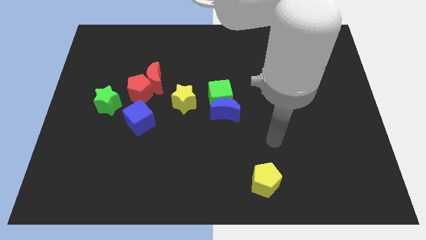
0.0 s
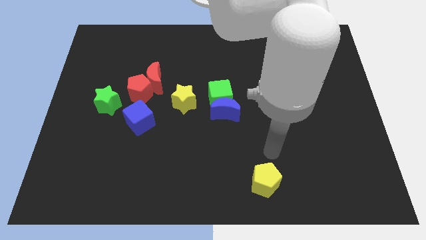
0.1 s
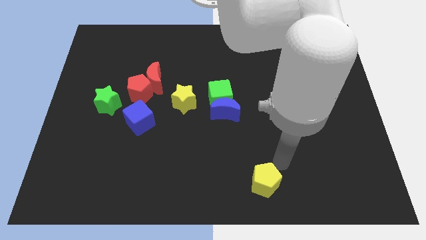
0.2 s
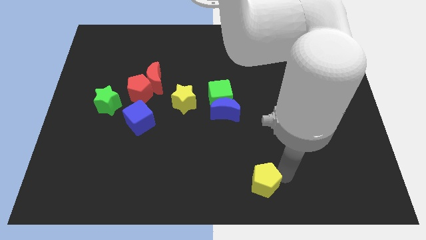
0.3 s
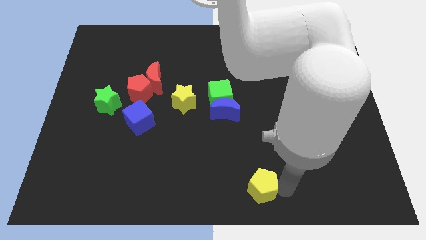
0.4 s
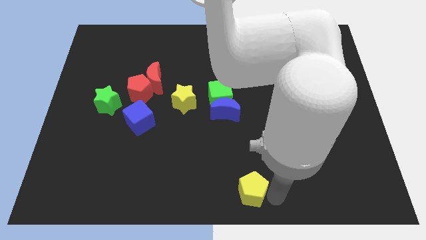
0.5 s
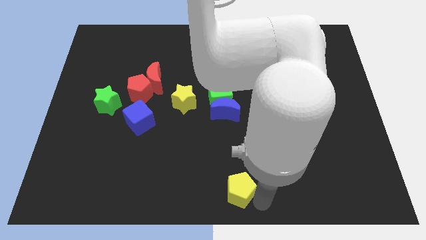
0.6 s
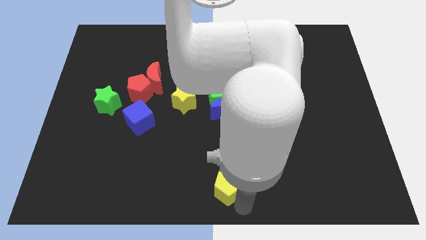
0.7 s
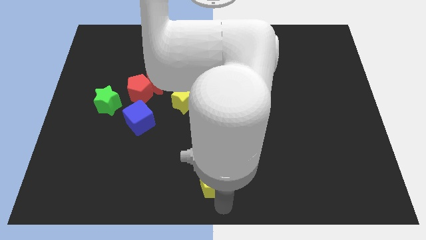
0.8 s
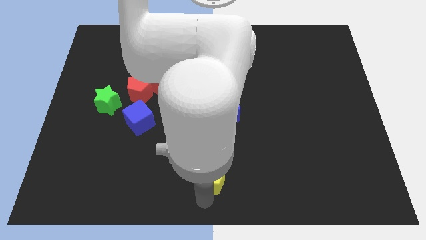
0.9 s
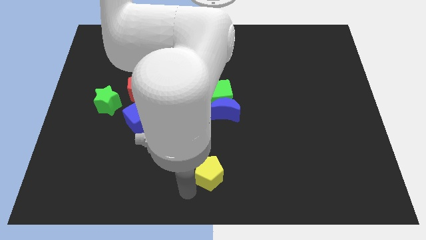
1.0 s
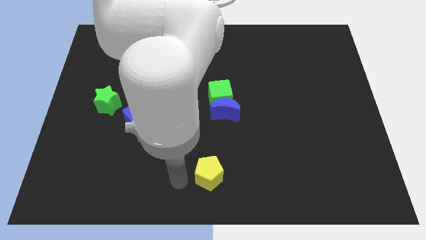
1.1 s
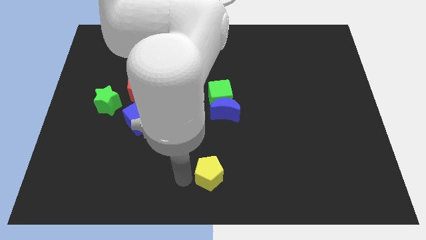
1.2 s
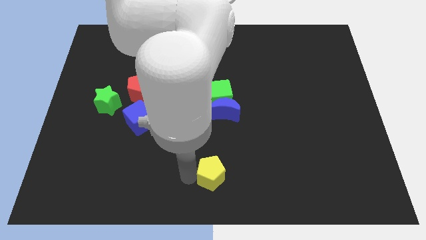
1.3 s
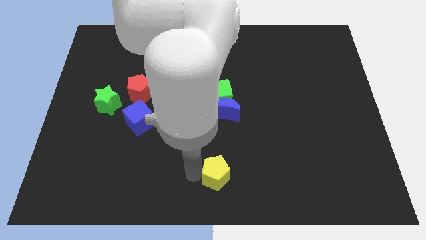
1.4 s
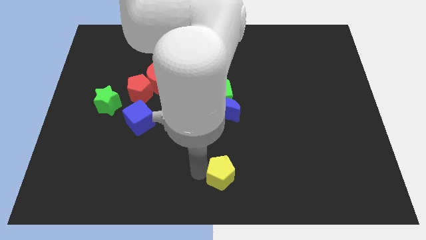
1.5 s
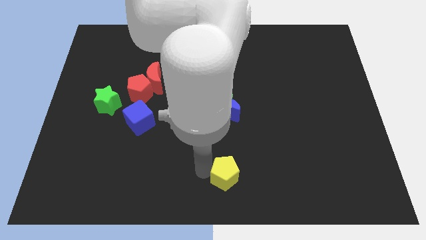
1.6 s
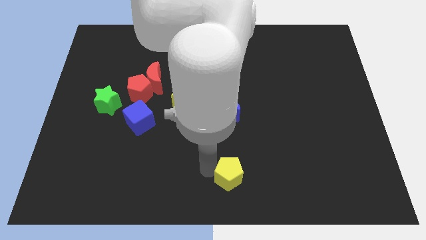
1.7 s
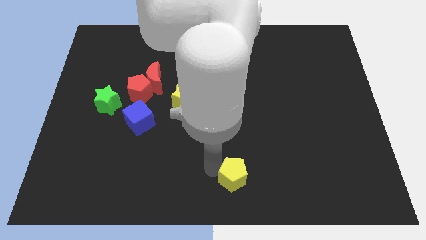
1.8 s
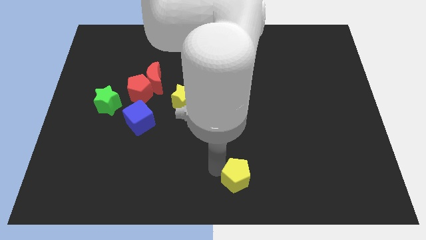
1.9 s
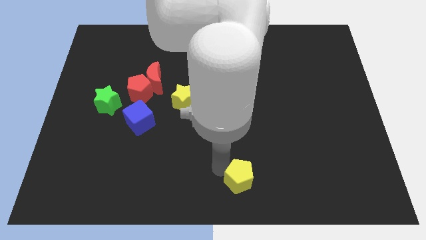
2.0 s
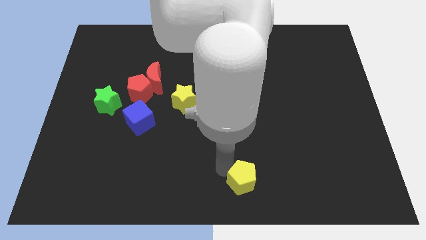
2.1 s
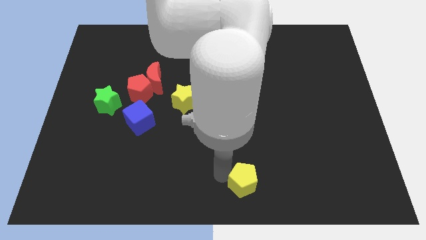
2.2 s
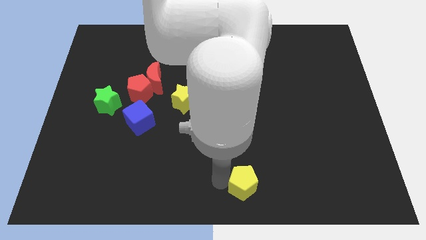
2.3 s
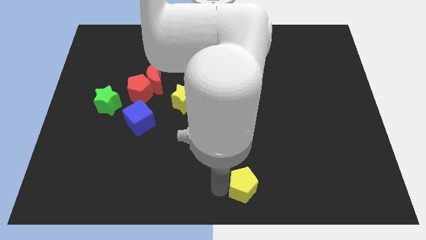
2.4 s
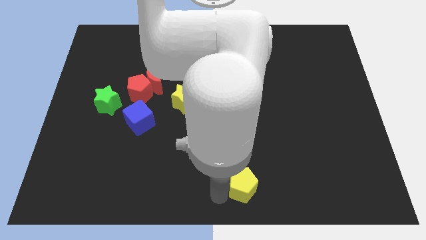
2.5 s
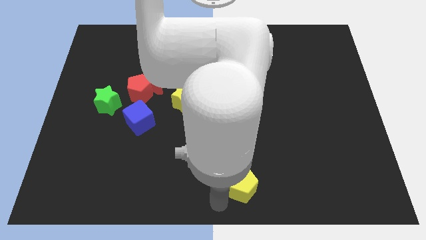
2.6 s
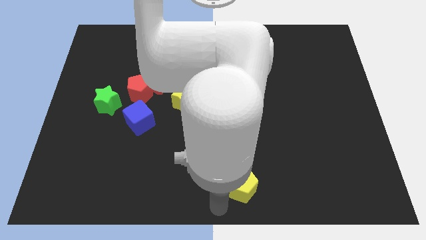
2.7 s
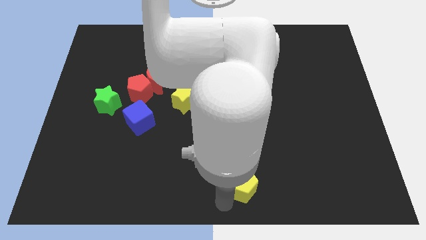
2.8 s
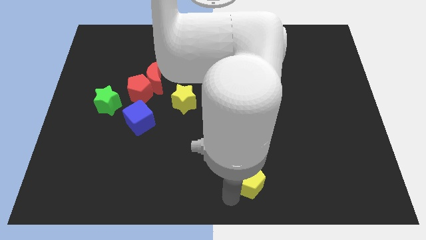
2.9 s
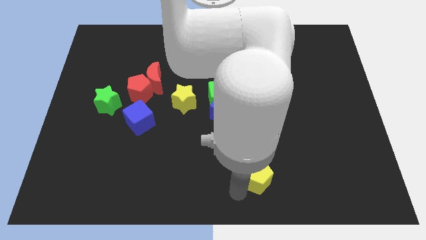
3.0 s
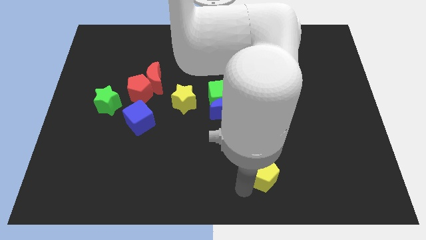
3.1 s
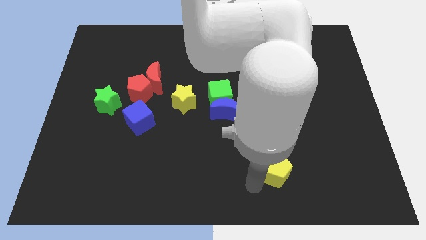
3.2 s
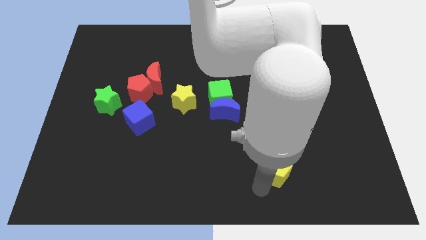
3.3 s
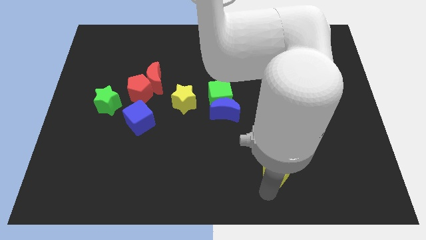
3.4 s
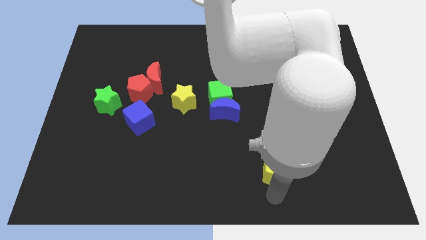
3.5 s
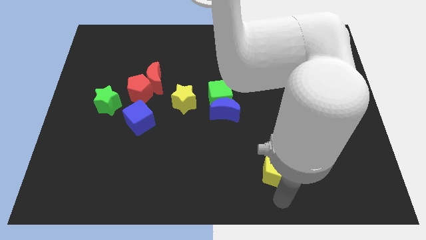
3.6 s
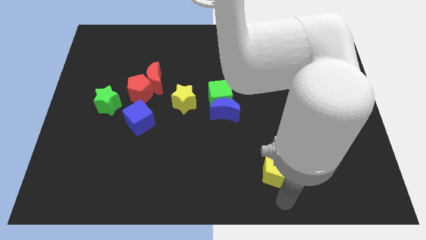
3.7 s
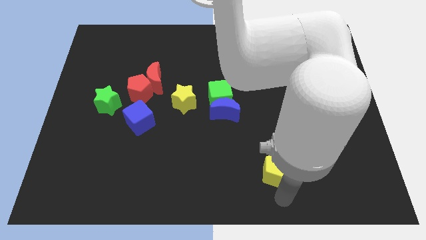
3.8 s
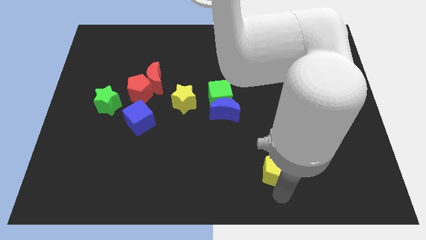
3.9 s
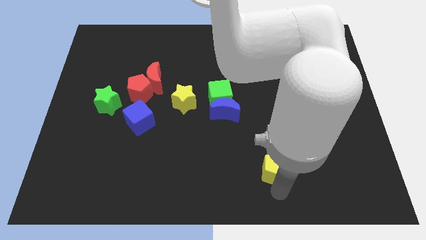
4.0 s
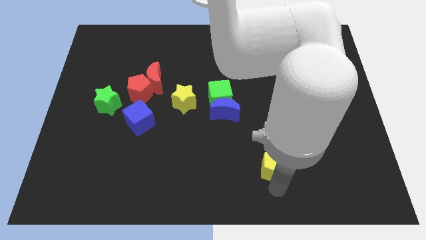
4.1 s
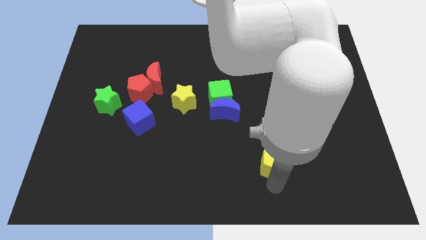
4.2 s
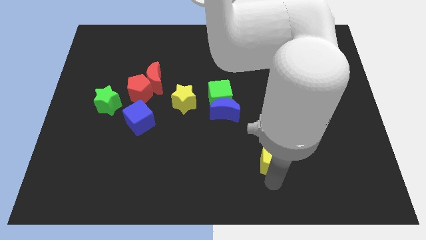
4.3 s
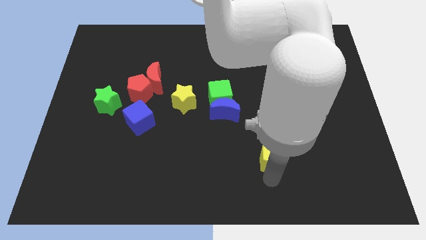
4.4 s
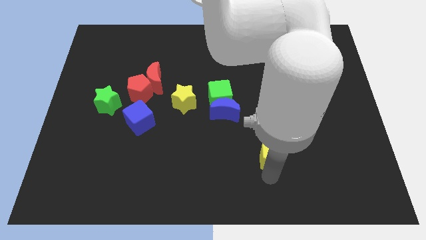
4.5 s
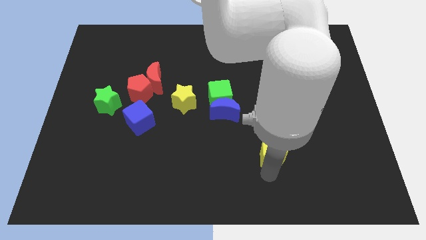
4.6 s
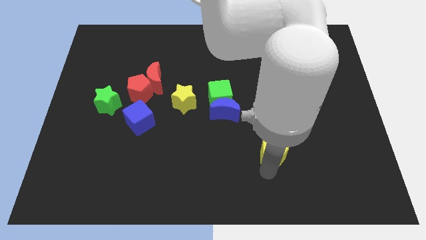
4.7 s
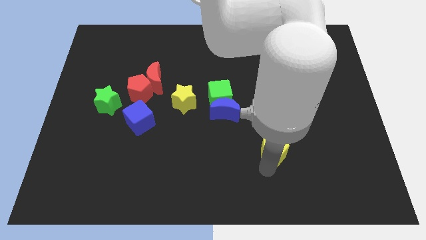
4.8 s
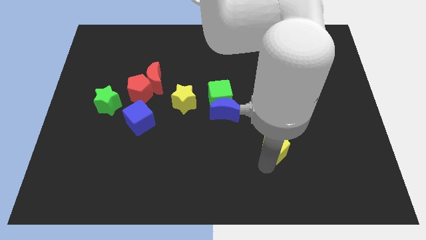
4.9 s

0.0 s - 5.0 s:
slide the yellow pentagon a little bit up

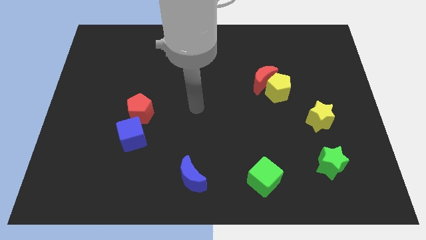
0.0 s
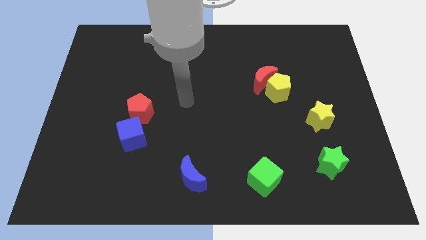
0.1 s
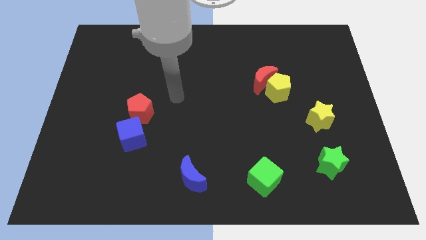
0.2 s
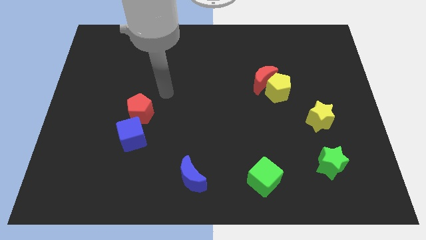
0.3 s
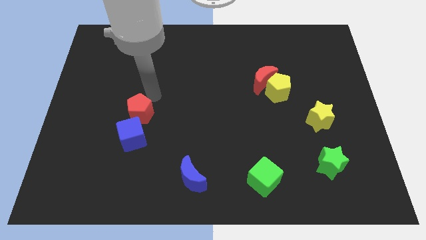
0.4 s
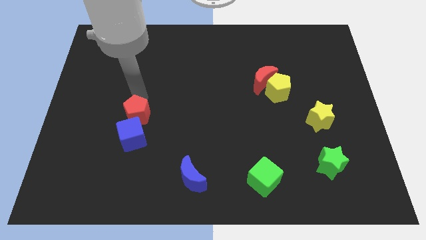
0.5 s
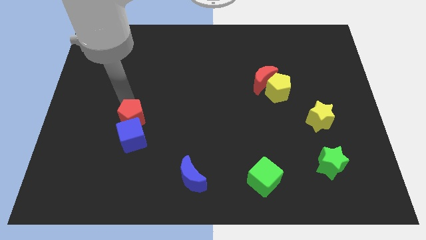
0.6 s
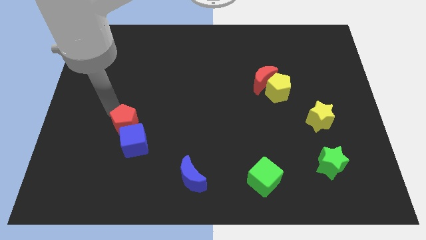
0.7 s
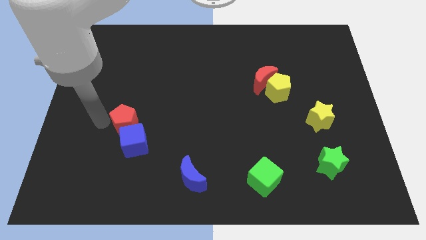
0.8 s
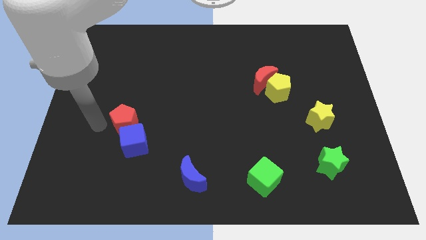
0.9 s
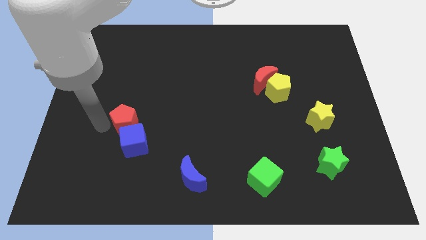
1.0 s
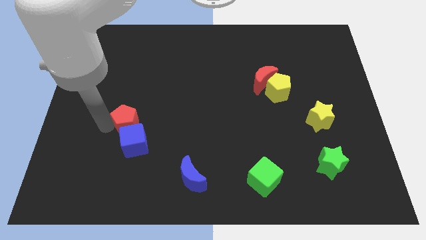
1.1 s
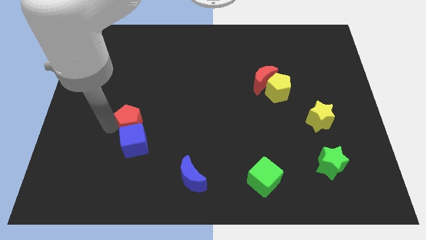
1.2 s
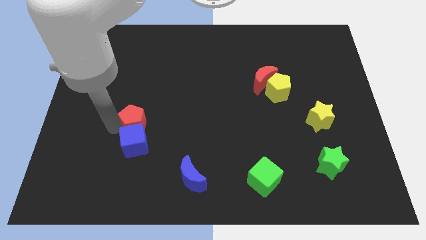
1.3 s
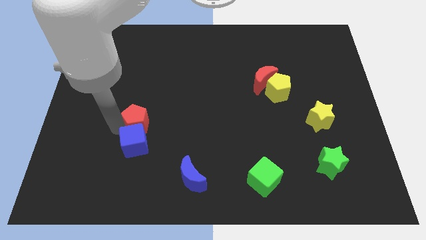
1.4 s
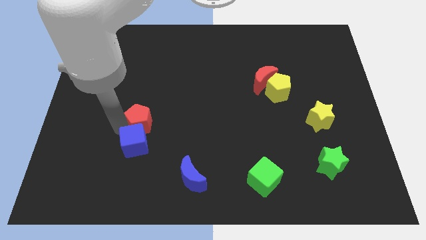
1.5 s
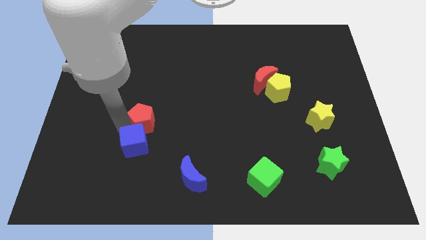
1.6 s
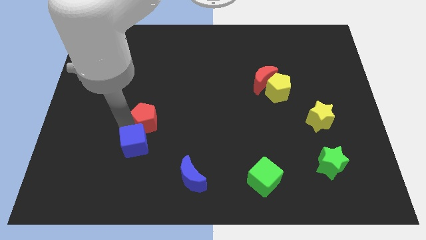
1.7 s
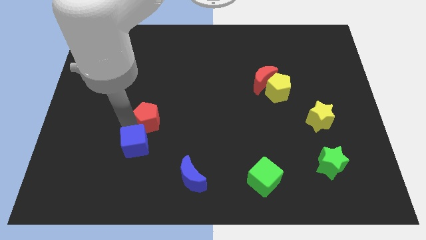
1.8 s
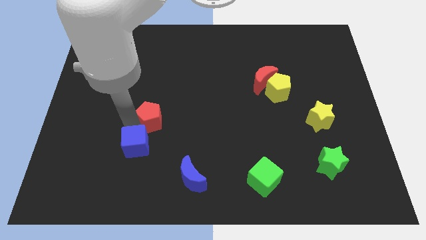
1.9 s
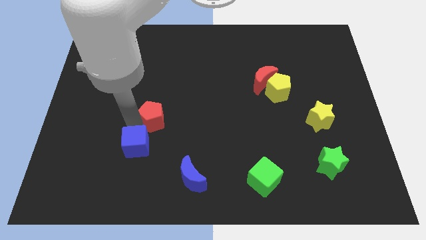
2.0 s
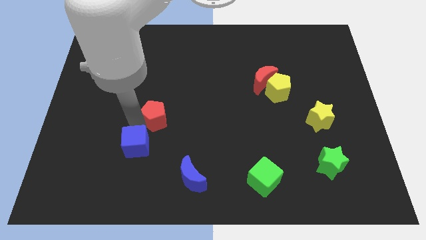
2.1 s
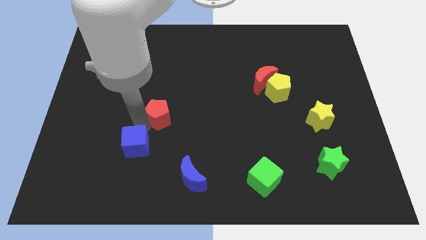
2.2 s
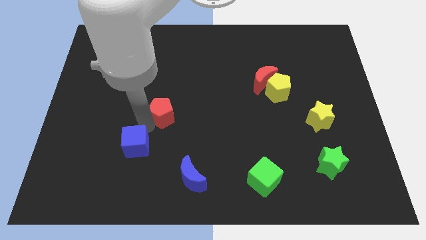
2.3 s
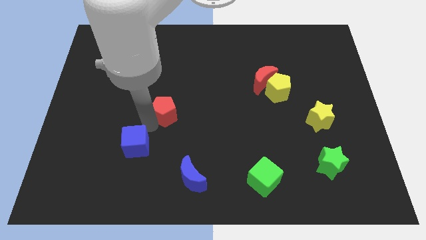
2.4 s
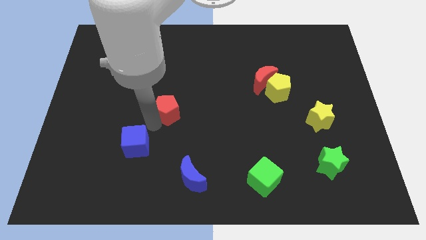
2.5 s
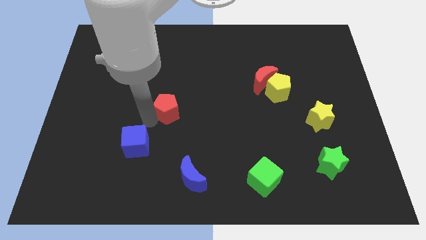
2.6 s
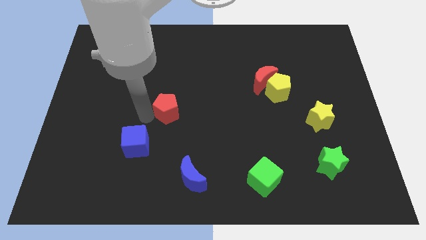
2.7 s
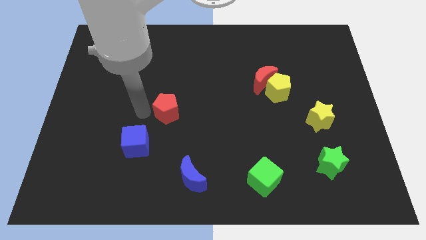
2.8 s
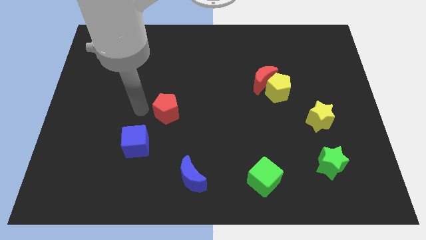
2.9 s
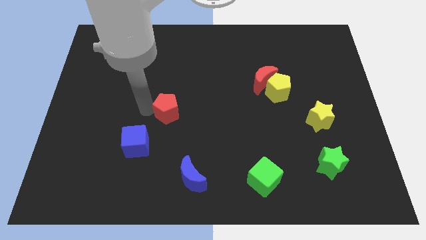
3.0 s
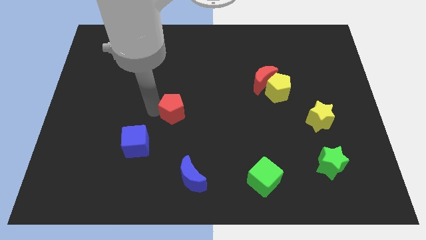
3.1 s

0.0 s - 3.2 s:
push the red pentagon to the right a bit

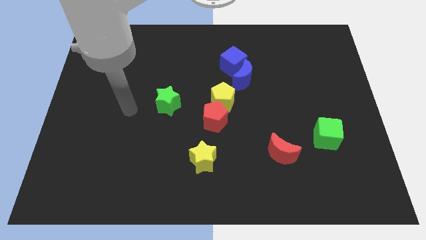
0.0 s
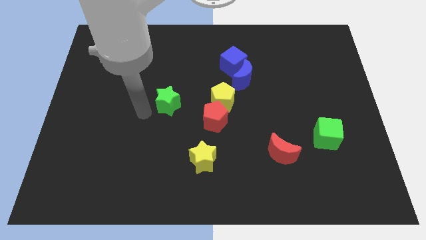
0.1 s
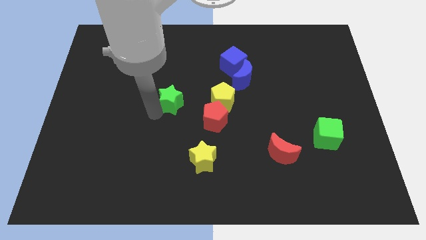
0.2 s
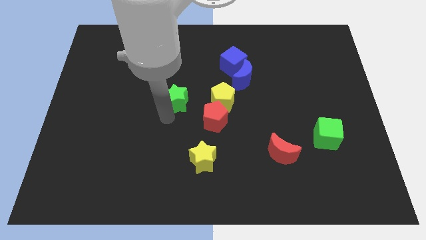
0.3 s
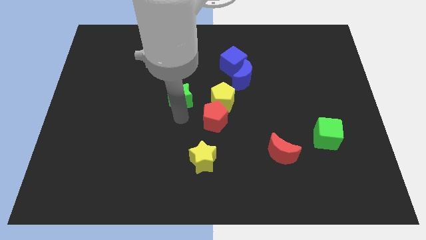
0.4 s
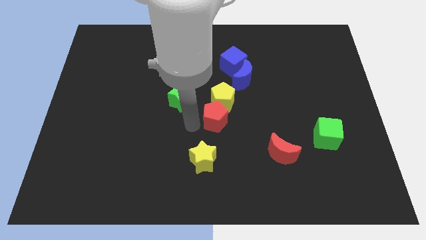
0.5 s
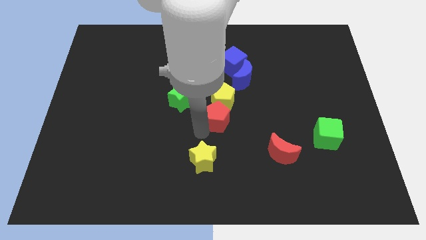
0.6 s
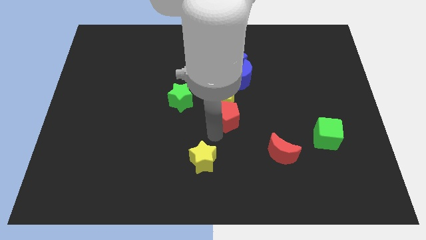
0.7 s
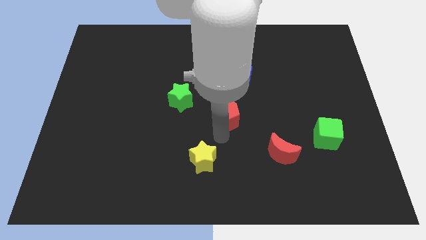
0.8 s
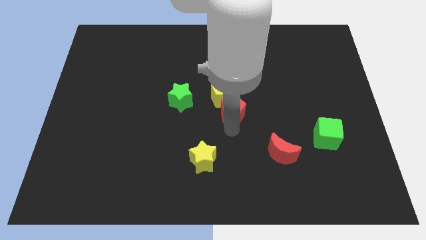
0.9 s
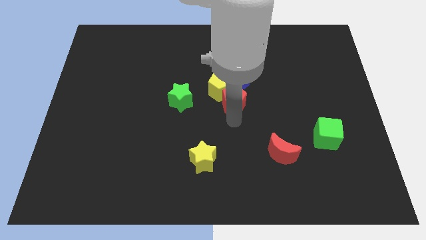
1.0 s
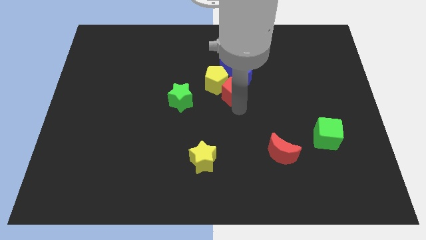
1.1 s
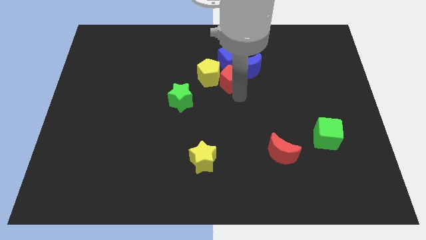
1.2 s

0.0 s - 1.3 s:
slide the yellow pentagon somewhat diagonally upwards and left
